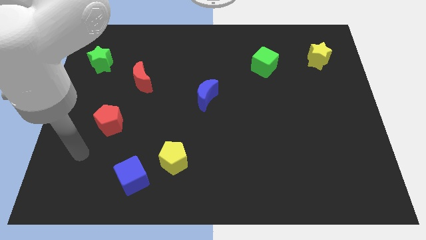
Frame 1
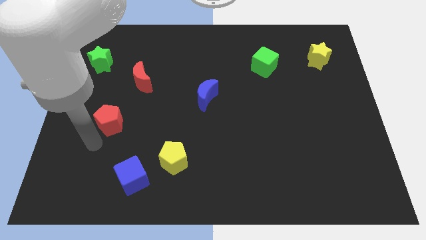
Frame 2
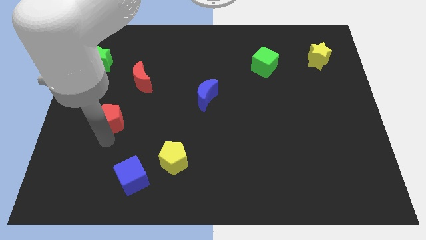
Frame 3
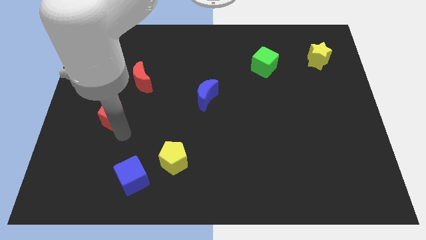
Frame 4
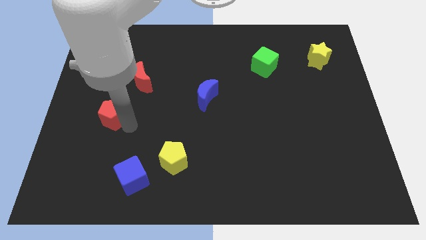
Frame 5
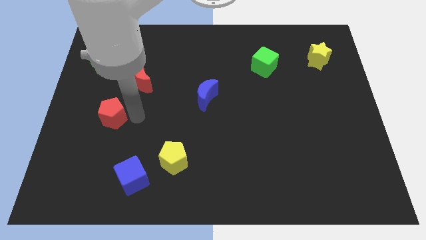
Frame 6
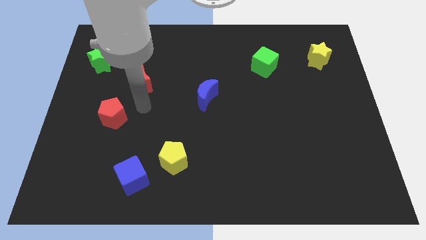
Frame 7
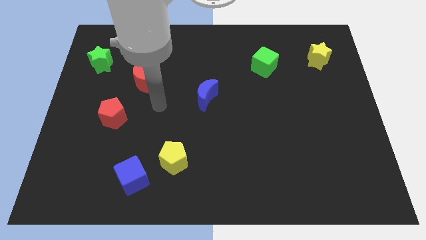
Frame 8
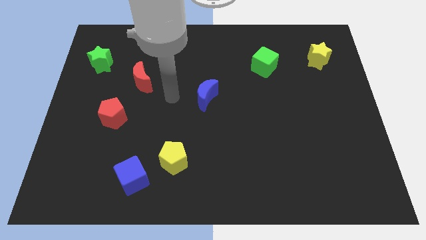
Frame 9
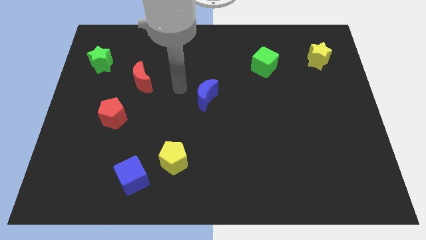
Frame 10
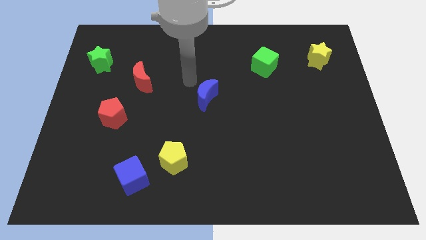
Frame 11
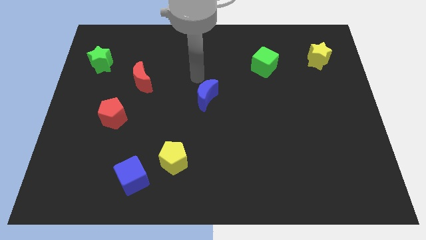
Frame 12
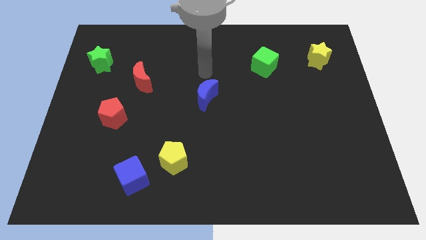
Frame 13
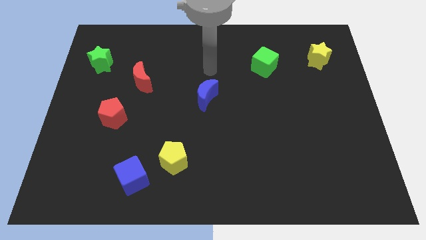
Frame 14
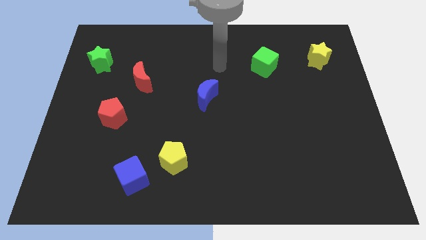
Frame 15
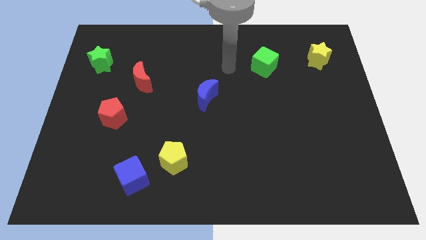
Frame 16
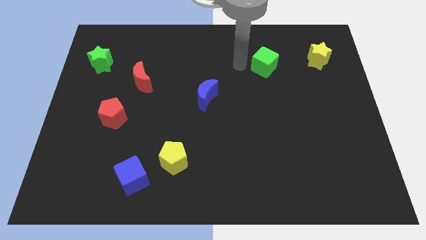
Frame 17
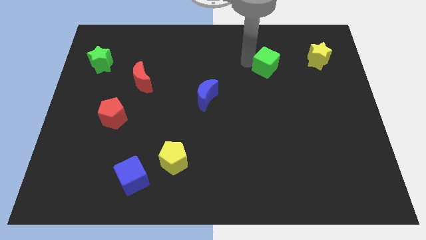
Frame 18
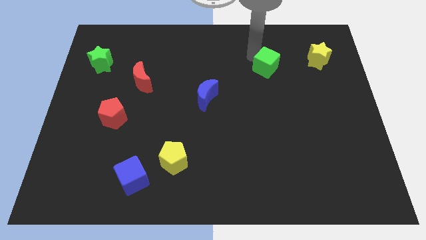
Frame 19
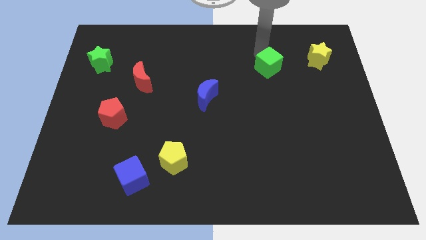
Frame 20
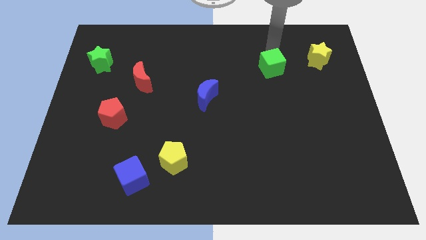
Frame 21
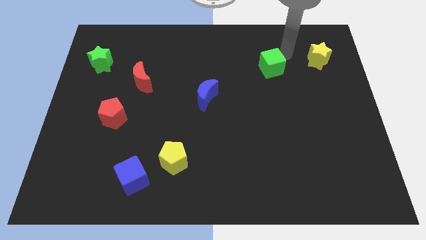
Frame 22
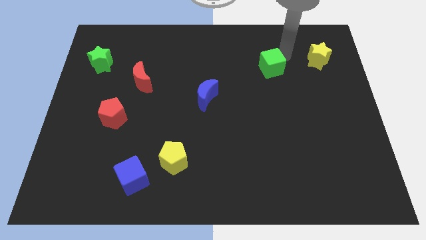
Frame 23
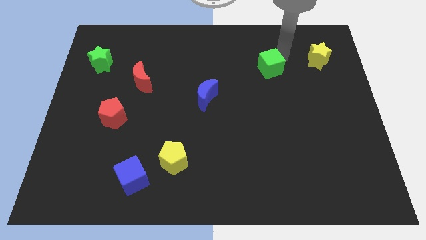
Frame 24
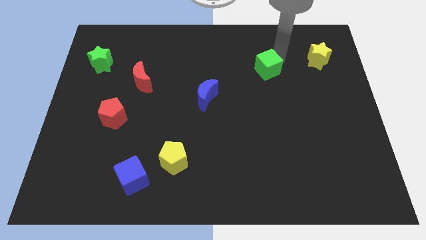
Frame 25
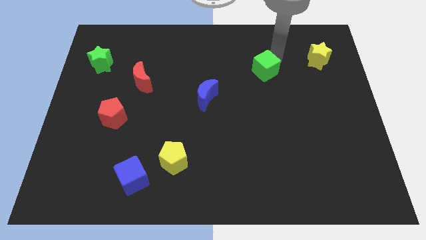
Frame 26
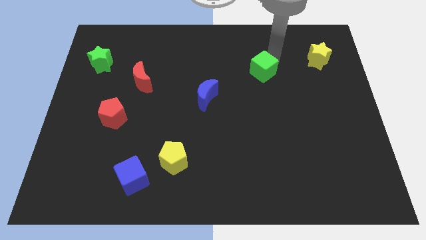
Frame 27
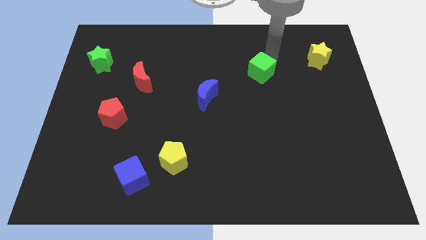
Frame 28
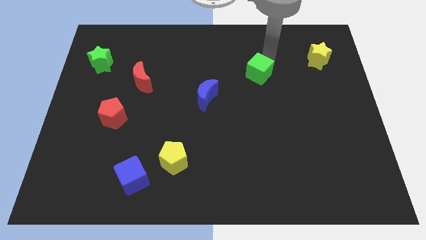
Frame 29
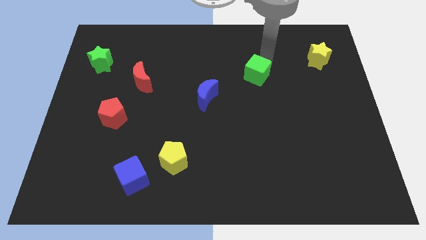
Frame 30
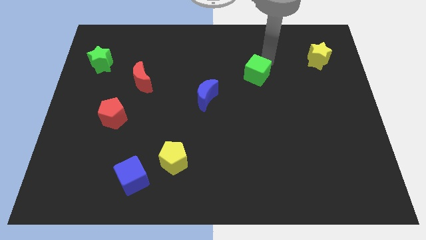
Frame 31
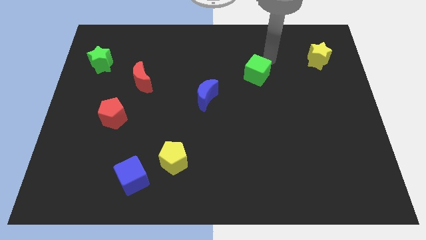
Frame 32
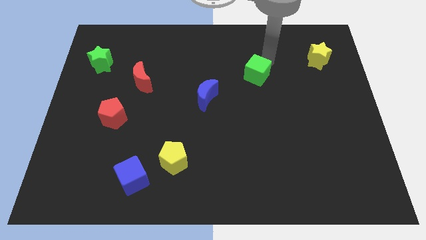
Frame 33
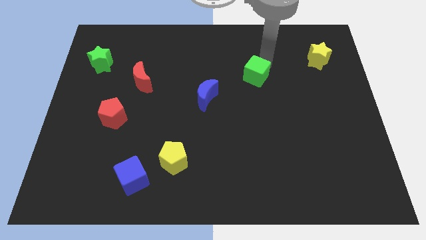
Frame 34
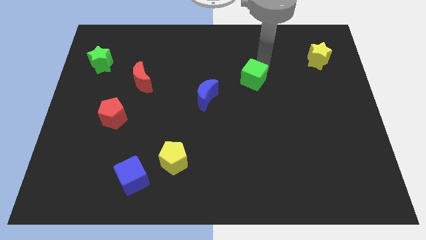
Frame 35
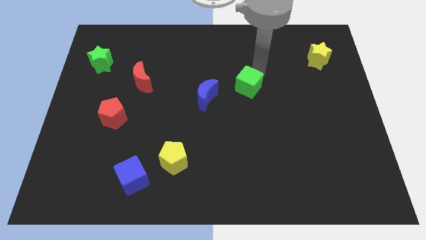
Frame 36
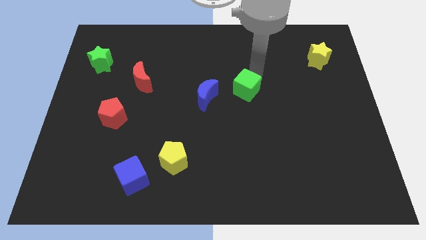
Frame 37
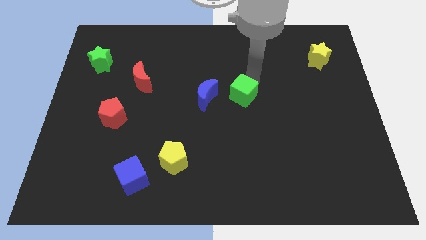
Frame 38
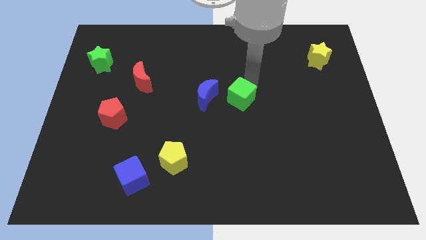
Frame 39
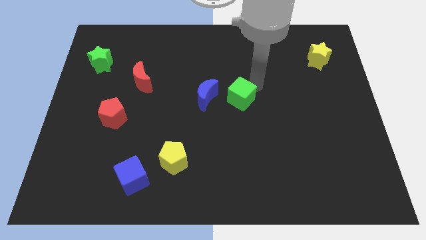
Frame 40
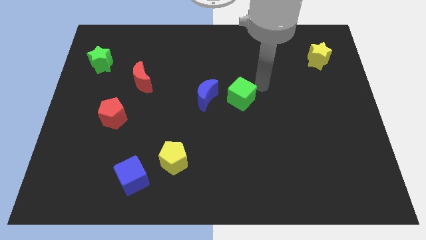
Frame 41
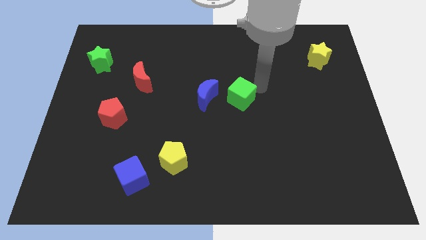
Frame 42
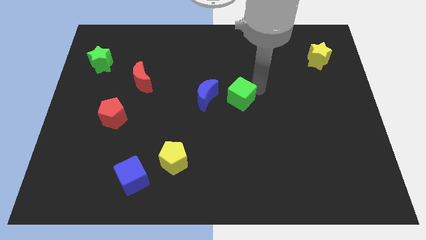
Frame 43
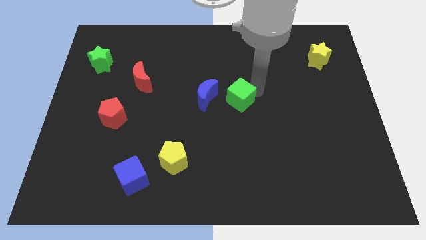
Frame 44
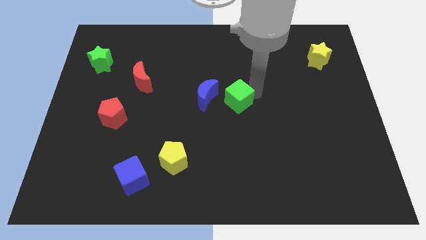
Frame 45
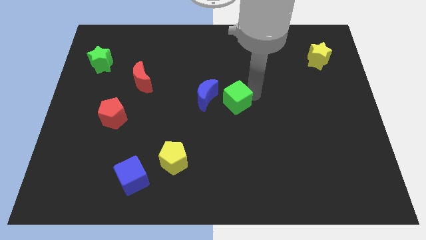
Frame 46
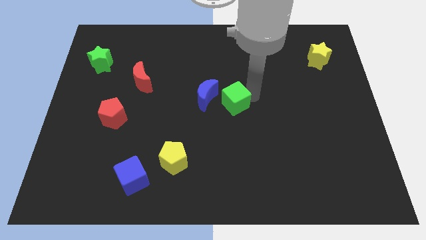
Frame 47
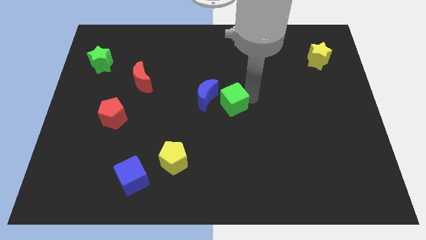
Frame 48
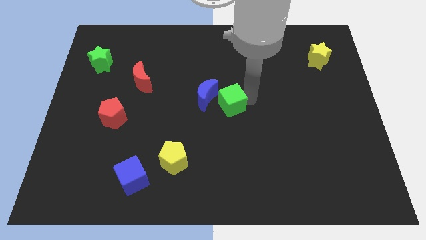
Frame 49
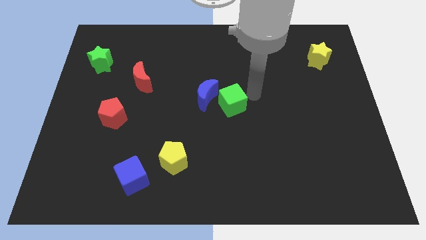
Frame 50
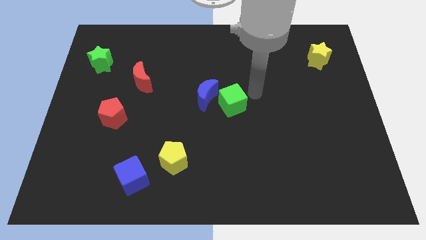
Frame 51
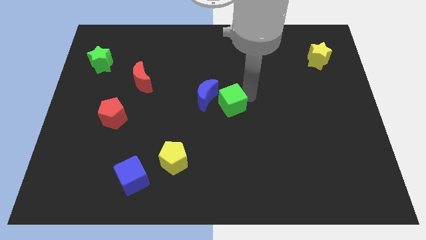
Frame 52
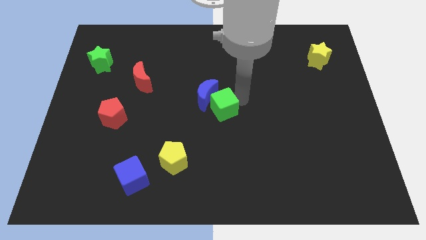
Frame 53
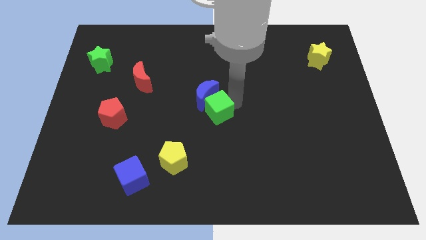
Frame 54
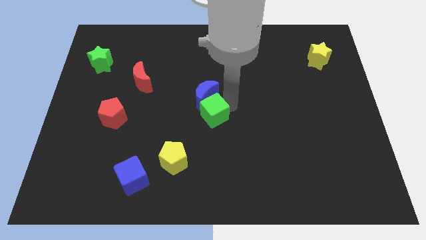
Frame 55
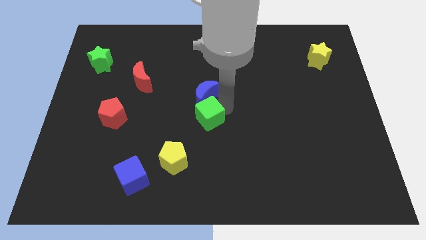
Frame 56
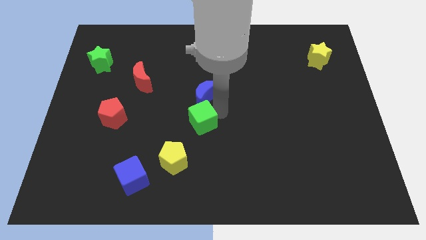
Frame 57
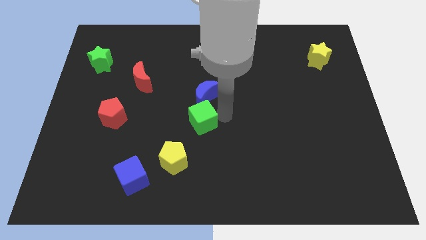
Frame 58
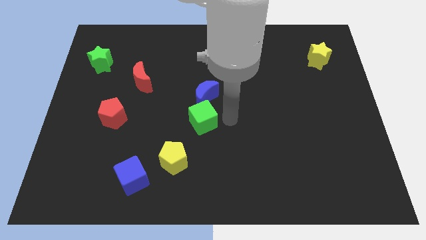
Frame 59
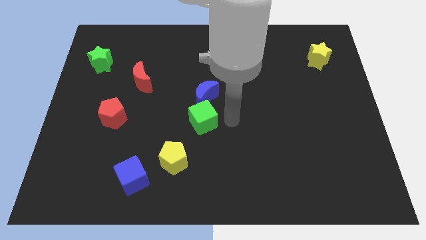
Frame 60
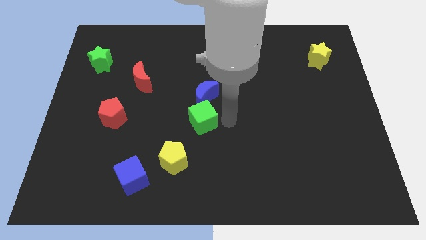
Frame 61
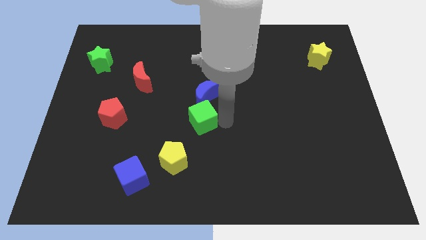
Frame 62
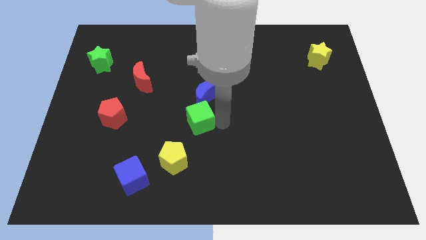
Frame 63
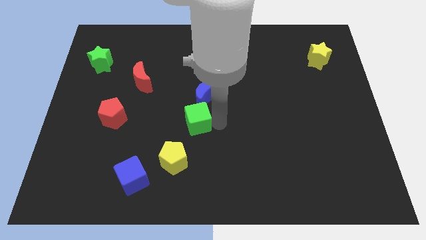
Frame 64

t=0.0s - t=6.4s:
move the green cube to the top side of the yellow pentagon
